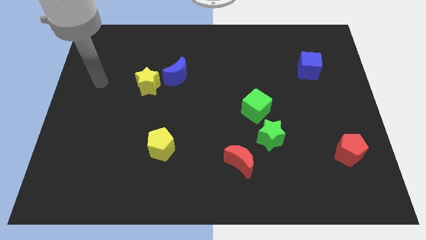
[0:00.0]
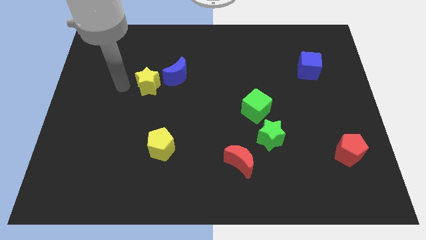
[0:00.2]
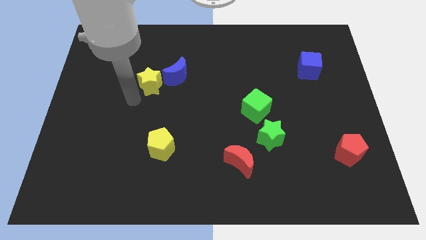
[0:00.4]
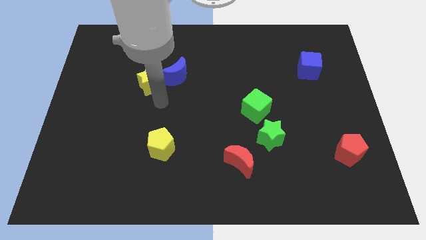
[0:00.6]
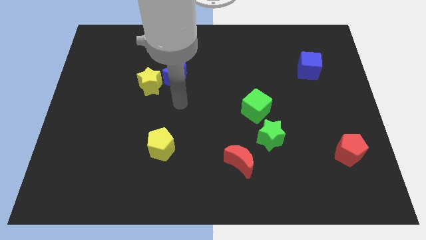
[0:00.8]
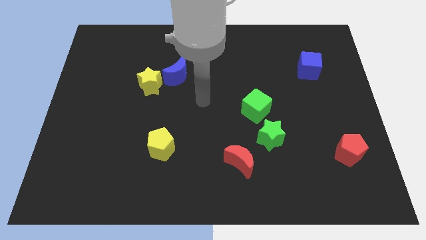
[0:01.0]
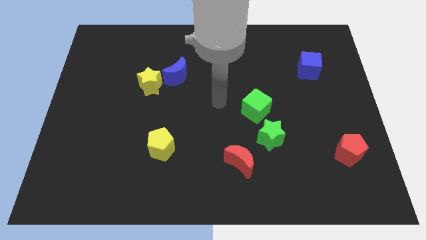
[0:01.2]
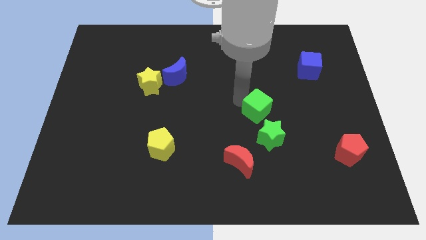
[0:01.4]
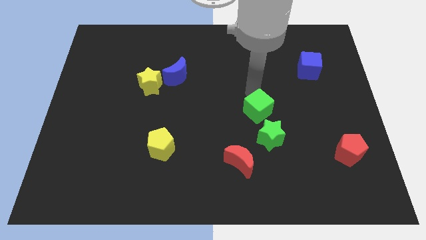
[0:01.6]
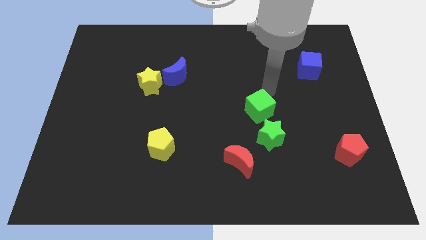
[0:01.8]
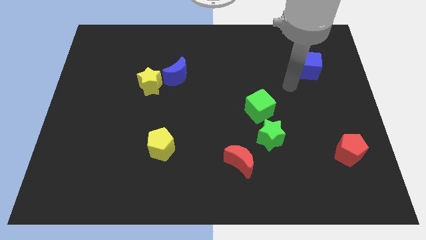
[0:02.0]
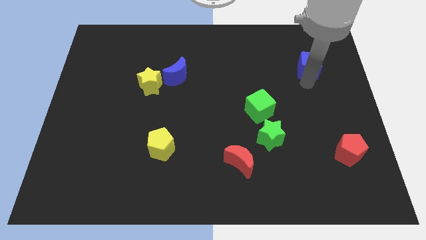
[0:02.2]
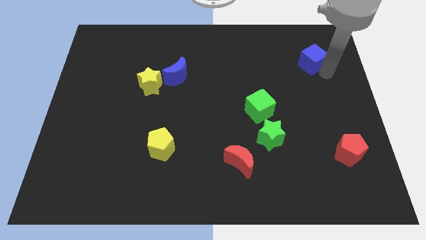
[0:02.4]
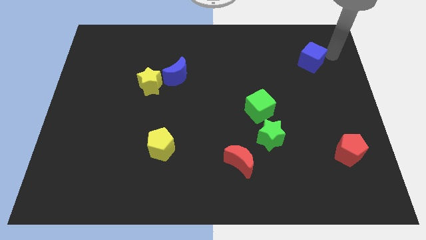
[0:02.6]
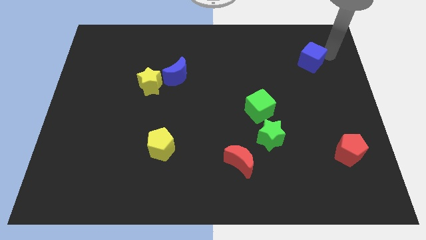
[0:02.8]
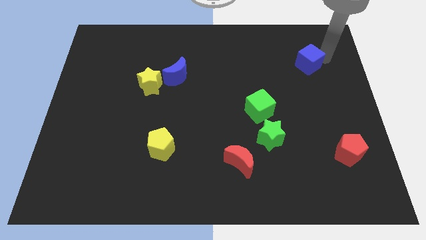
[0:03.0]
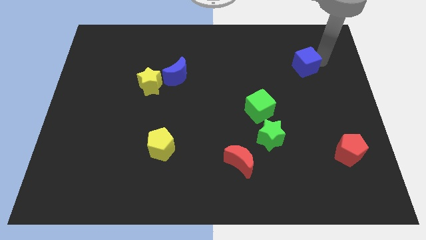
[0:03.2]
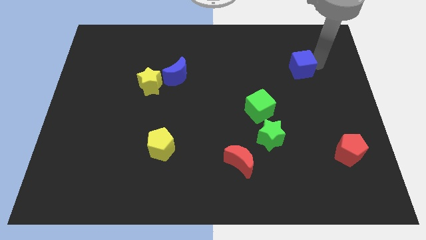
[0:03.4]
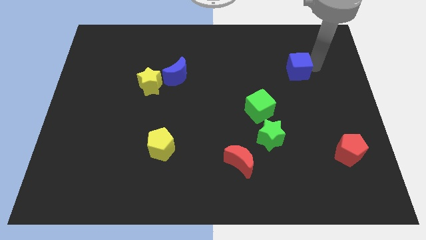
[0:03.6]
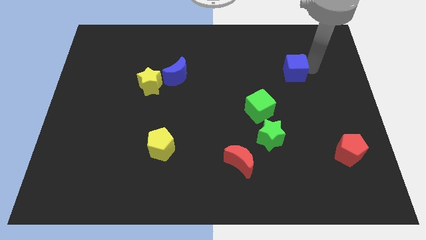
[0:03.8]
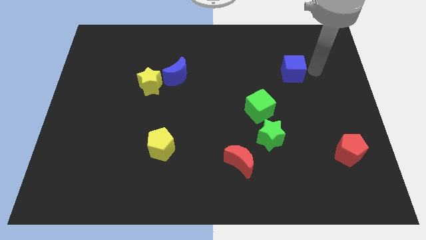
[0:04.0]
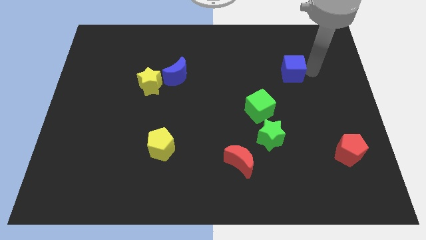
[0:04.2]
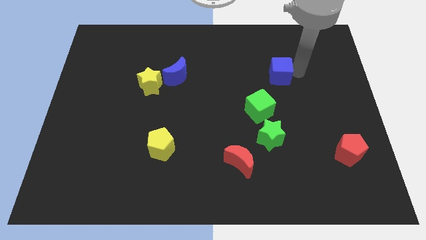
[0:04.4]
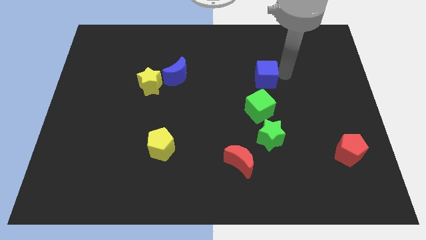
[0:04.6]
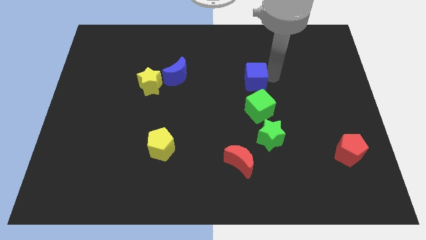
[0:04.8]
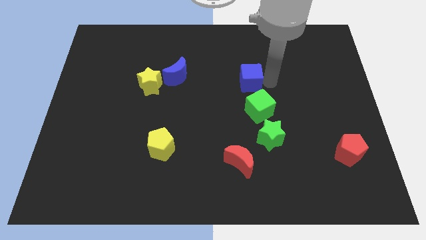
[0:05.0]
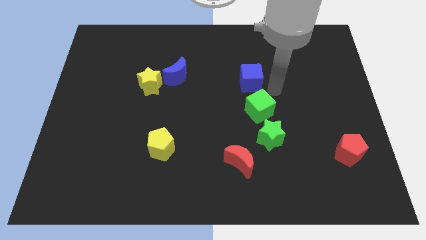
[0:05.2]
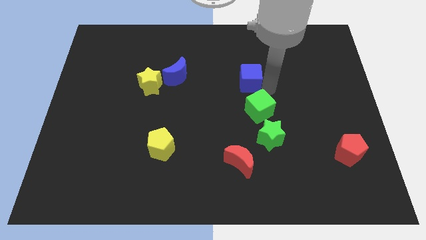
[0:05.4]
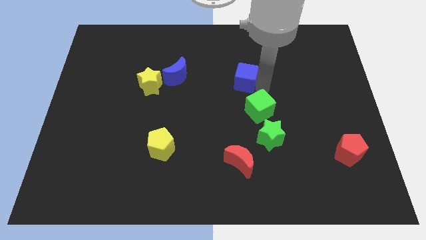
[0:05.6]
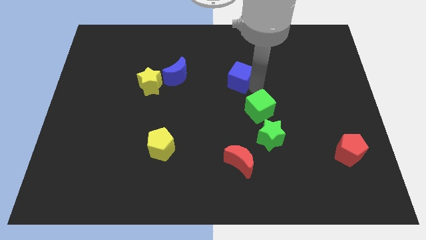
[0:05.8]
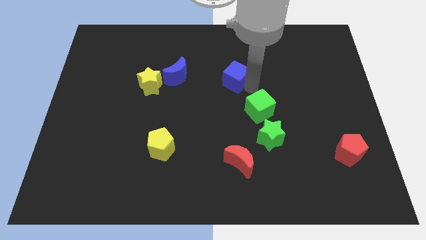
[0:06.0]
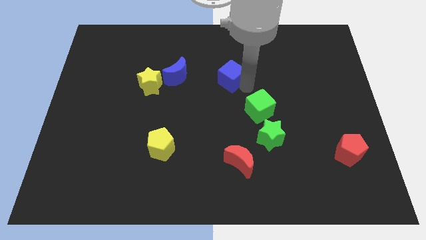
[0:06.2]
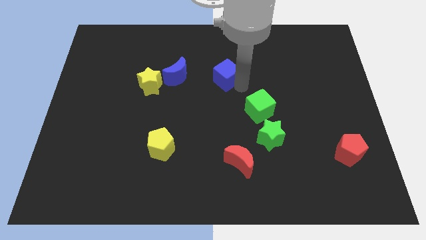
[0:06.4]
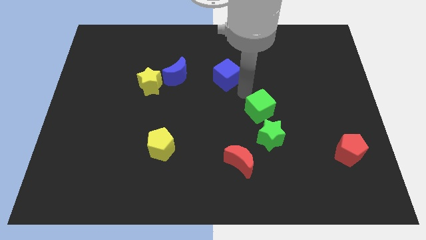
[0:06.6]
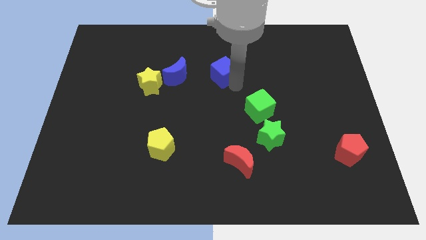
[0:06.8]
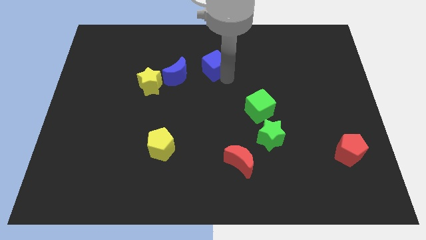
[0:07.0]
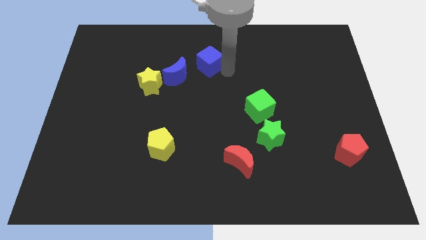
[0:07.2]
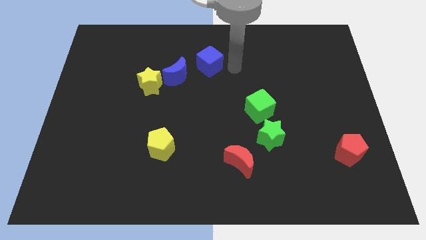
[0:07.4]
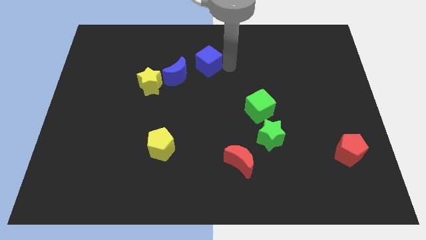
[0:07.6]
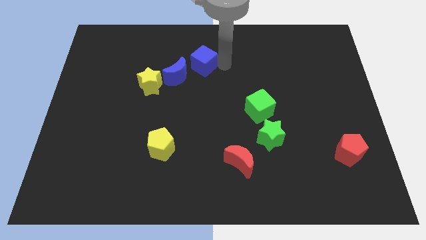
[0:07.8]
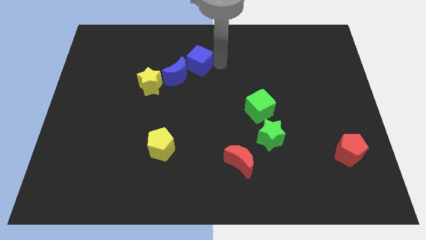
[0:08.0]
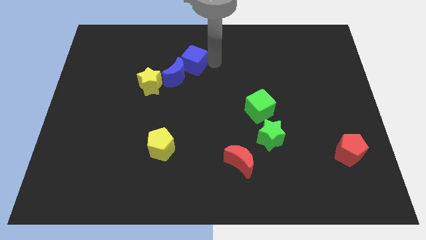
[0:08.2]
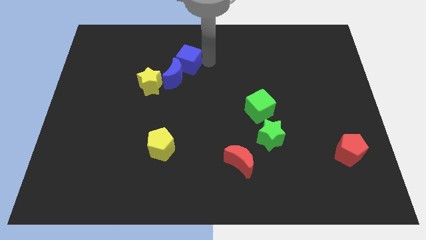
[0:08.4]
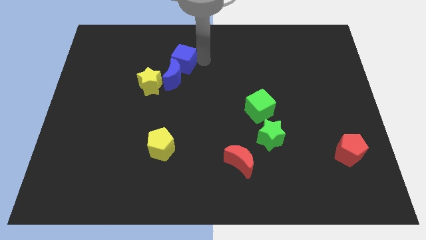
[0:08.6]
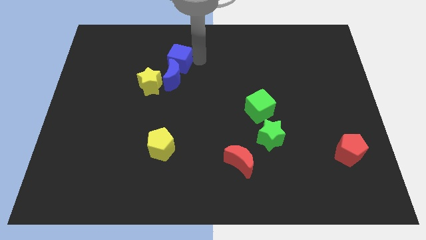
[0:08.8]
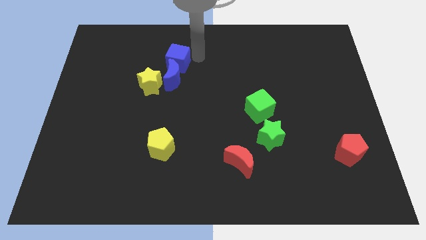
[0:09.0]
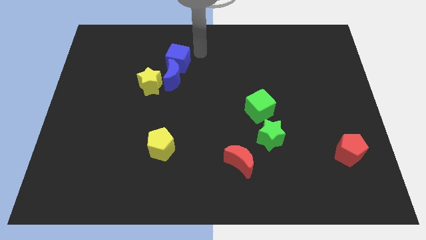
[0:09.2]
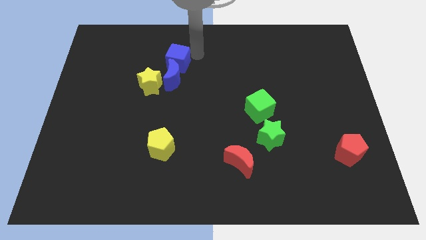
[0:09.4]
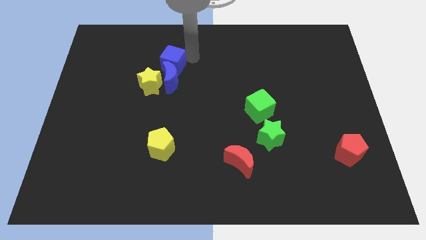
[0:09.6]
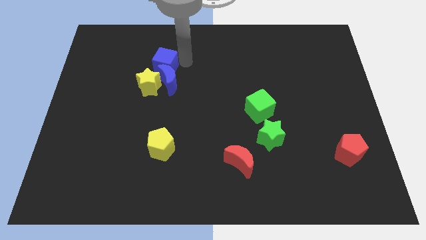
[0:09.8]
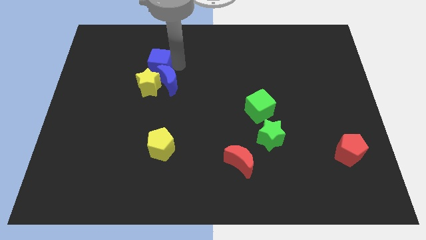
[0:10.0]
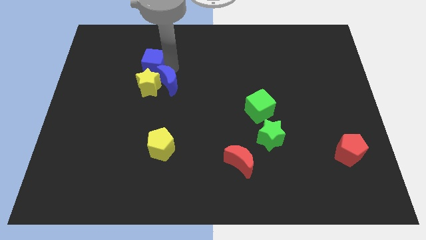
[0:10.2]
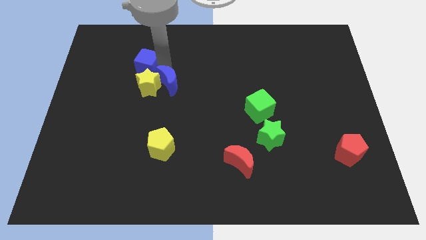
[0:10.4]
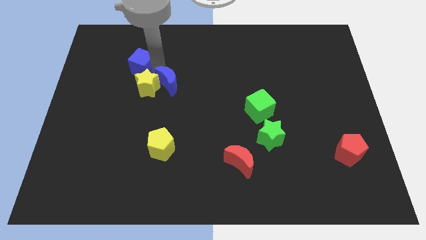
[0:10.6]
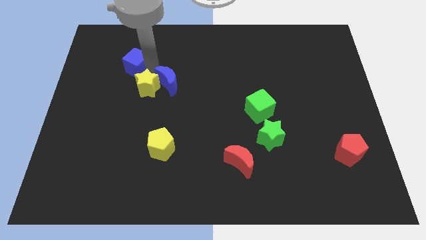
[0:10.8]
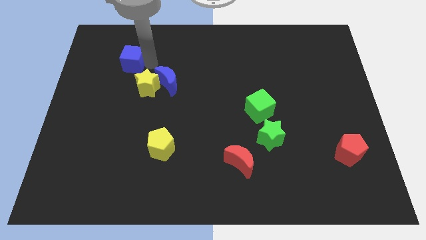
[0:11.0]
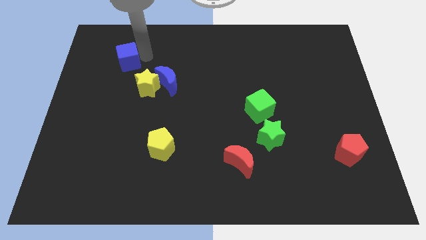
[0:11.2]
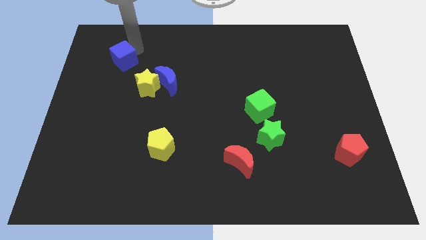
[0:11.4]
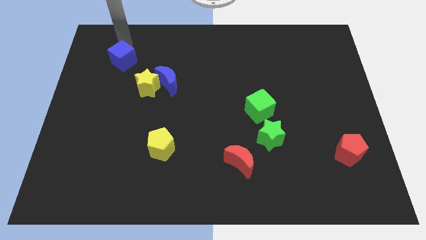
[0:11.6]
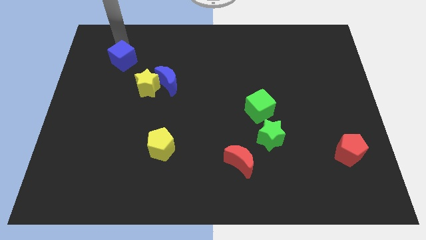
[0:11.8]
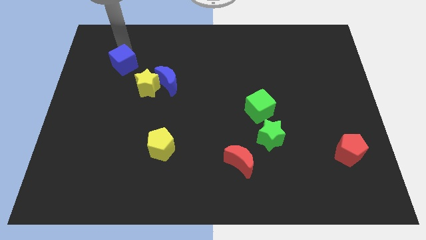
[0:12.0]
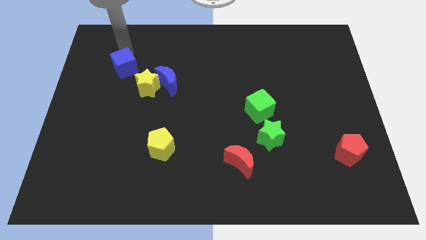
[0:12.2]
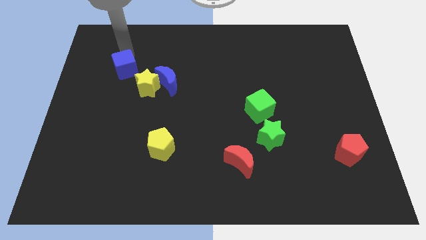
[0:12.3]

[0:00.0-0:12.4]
move the blue cube to the left side of the blue moon
